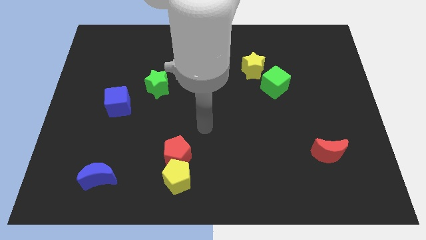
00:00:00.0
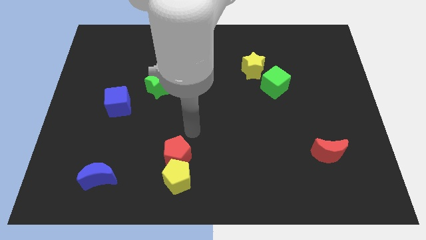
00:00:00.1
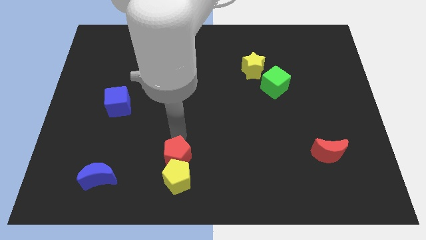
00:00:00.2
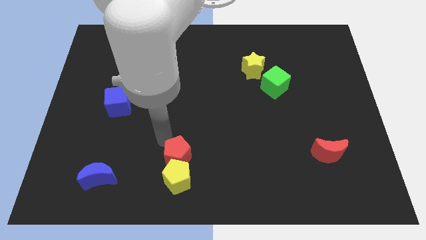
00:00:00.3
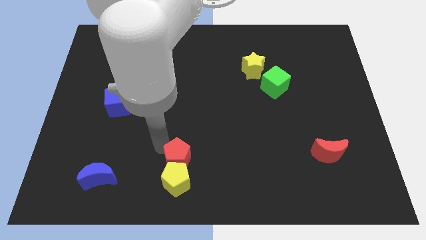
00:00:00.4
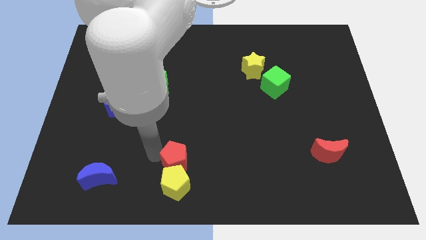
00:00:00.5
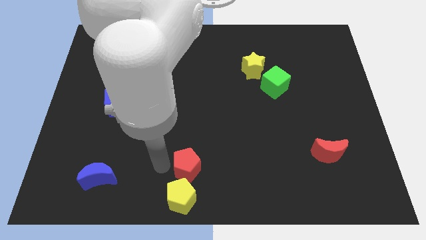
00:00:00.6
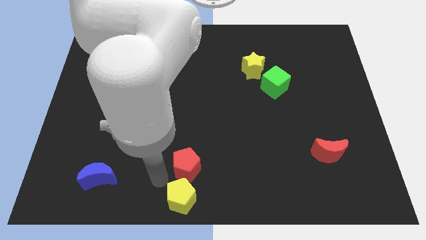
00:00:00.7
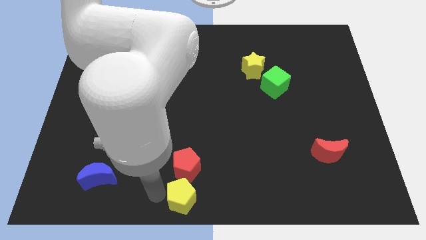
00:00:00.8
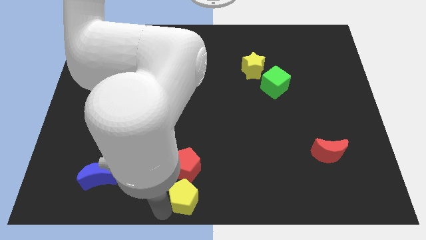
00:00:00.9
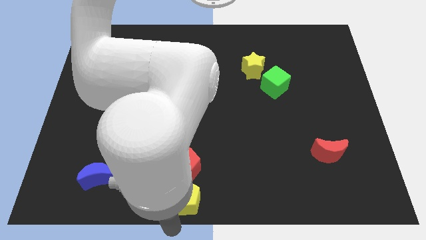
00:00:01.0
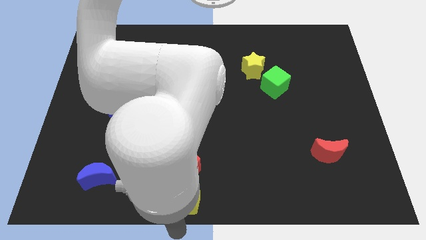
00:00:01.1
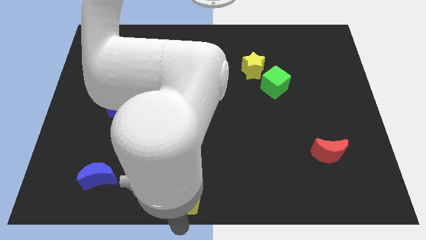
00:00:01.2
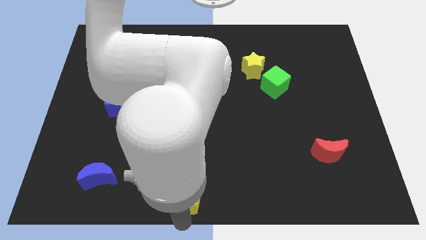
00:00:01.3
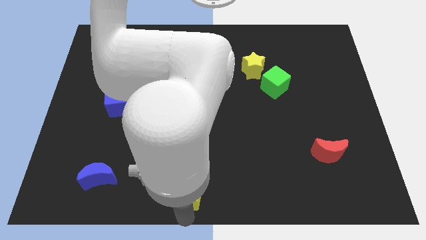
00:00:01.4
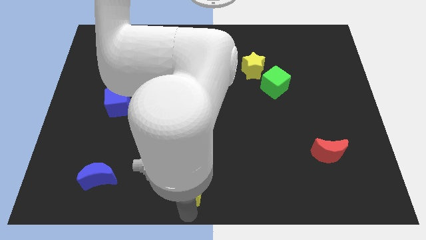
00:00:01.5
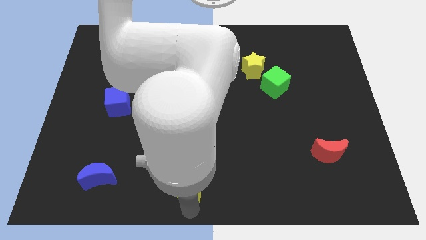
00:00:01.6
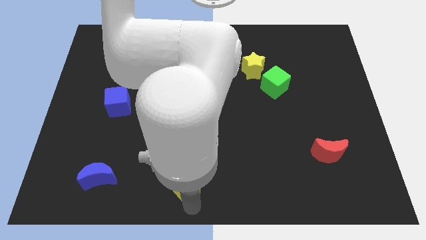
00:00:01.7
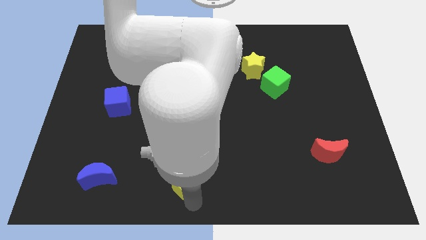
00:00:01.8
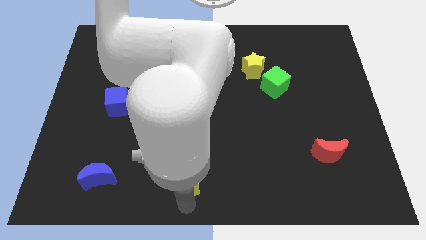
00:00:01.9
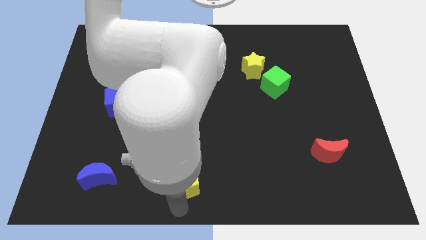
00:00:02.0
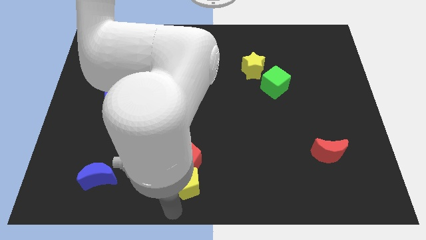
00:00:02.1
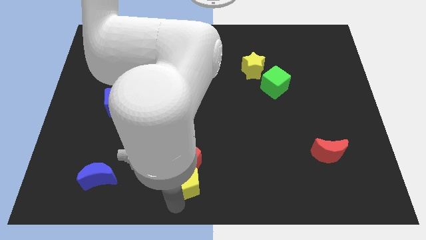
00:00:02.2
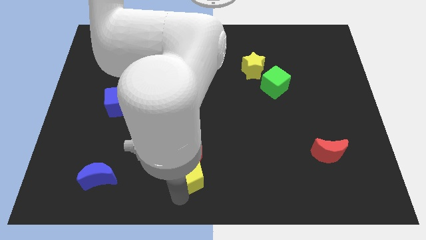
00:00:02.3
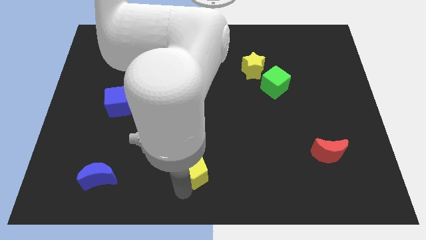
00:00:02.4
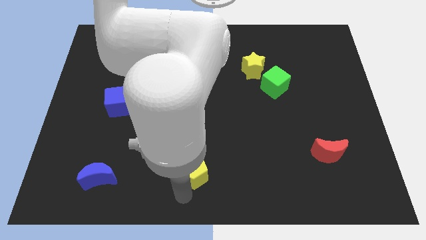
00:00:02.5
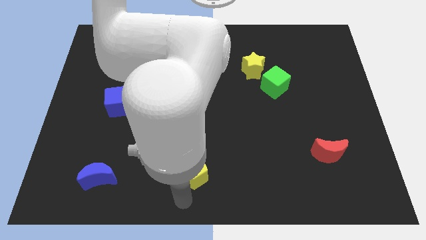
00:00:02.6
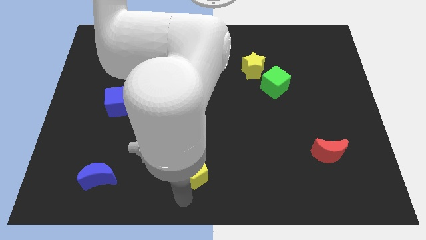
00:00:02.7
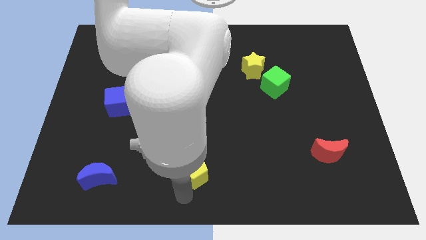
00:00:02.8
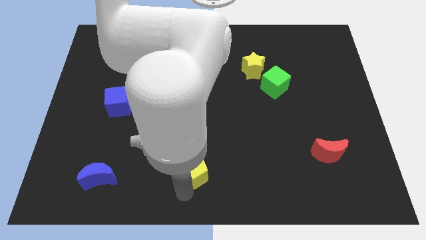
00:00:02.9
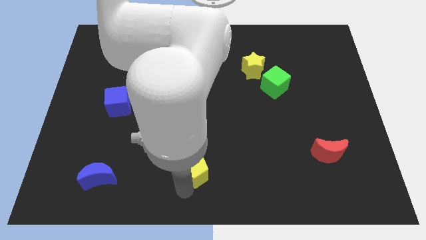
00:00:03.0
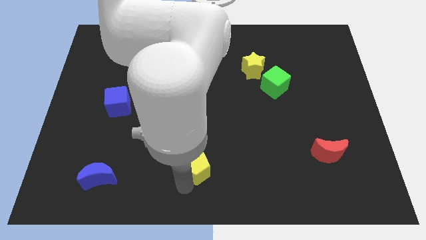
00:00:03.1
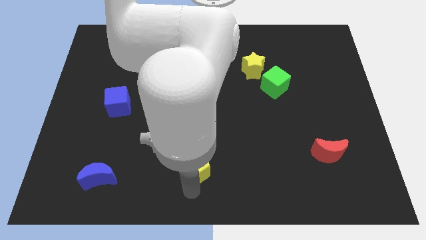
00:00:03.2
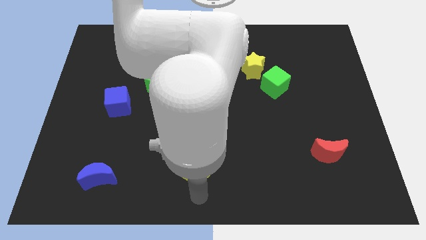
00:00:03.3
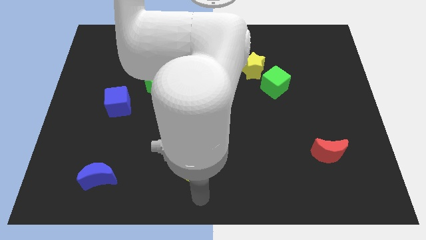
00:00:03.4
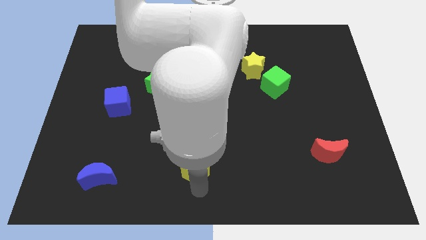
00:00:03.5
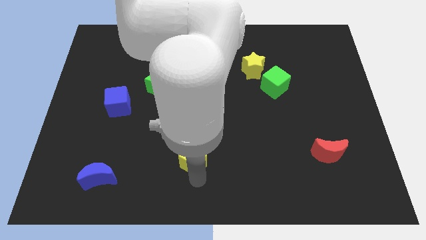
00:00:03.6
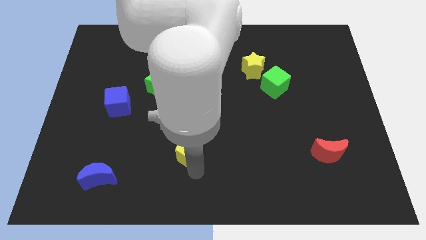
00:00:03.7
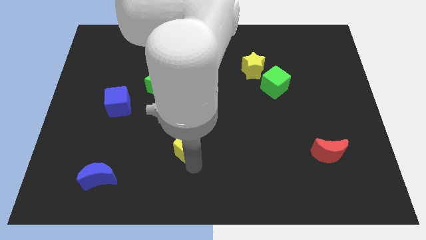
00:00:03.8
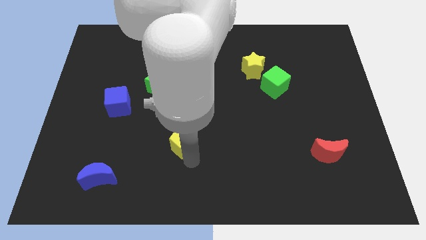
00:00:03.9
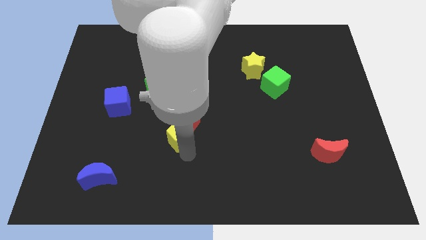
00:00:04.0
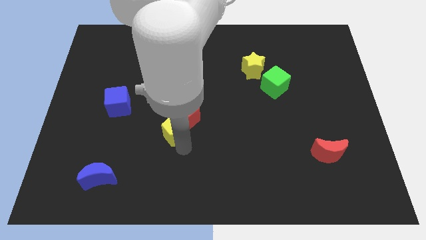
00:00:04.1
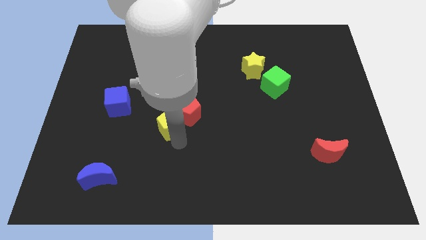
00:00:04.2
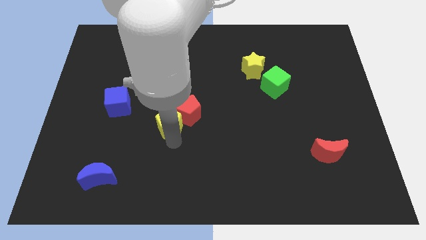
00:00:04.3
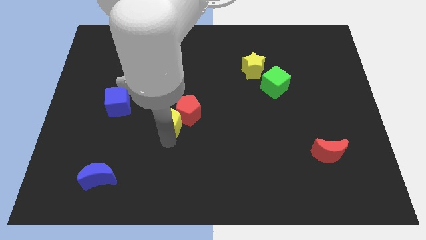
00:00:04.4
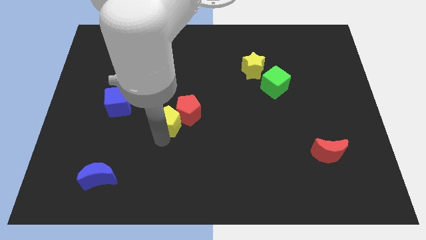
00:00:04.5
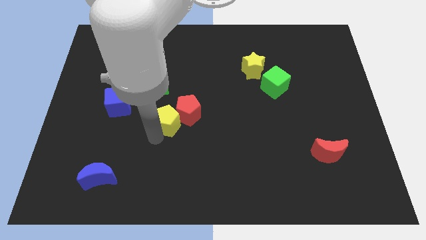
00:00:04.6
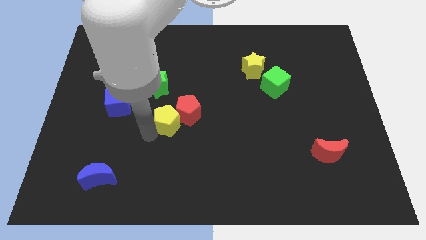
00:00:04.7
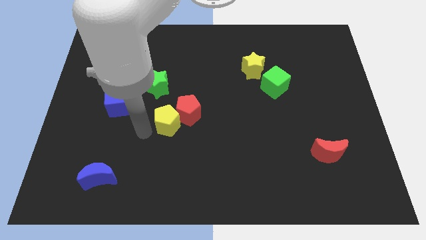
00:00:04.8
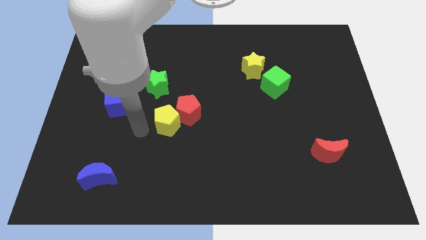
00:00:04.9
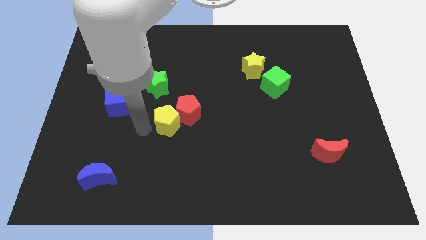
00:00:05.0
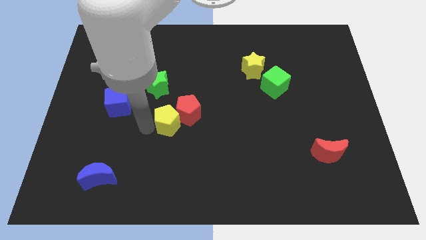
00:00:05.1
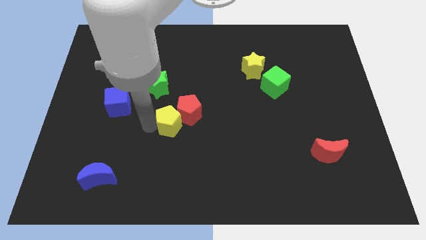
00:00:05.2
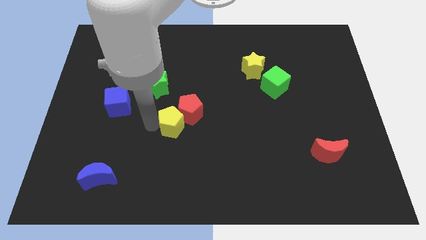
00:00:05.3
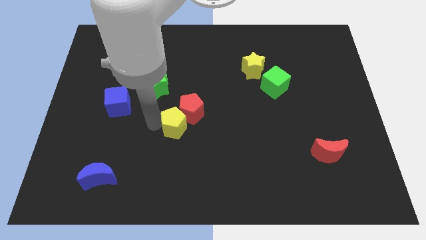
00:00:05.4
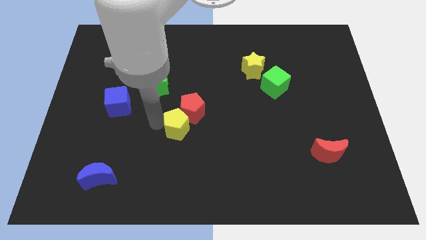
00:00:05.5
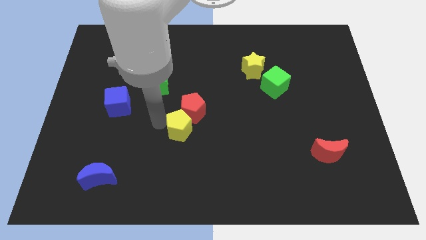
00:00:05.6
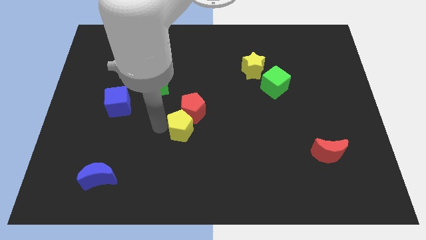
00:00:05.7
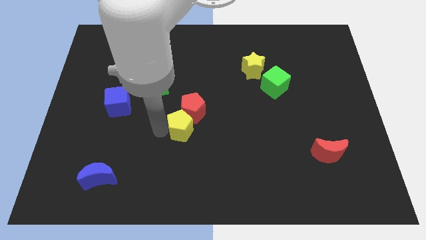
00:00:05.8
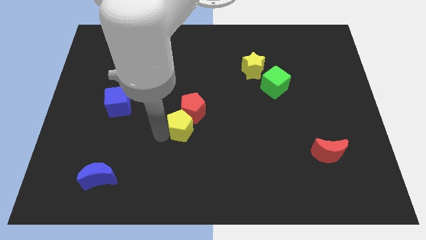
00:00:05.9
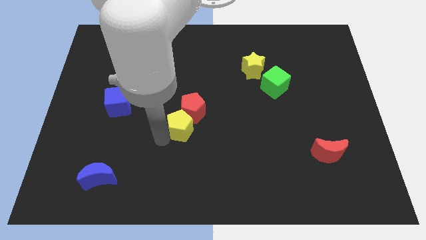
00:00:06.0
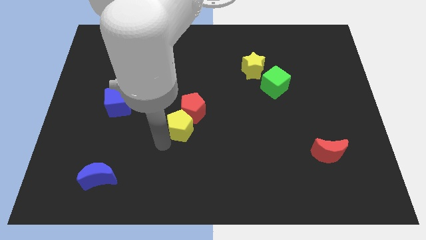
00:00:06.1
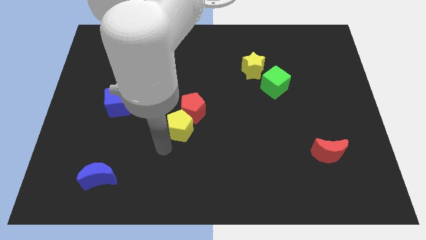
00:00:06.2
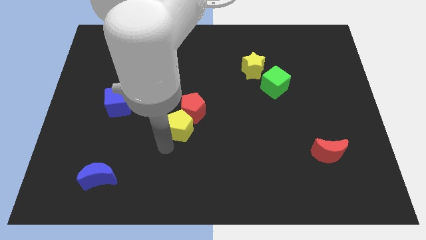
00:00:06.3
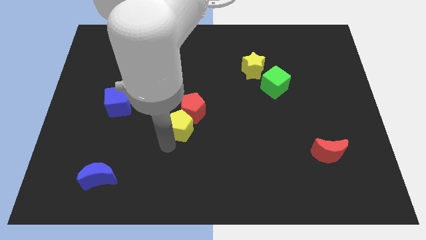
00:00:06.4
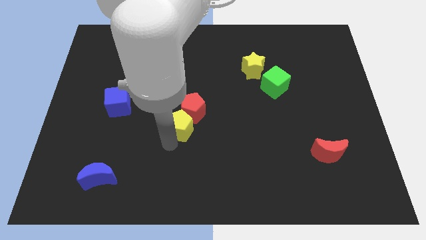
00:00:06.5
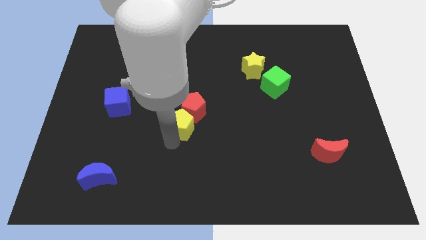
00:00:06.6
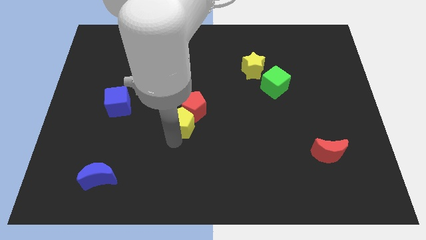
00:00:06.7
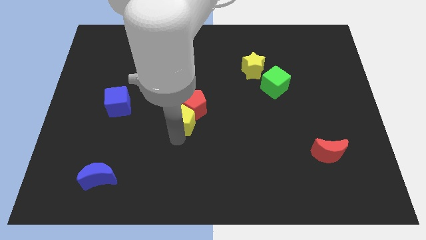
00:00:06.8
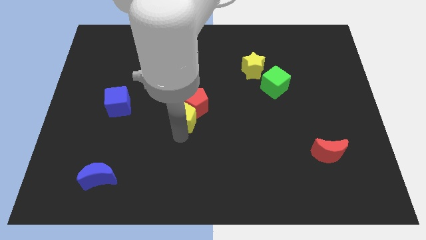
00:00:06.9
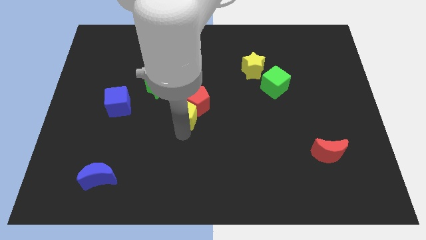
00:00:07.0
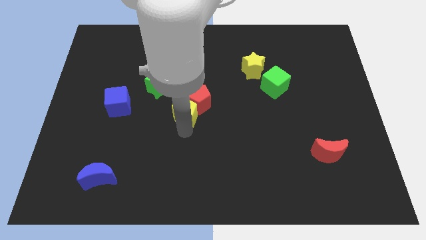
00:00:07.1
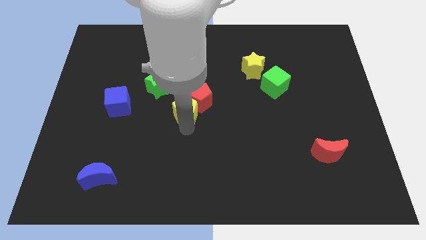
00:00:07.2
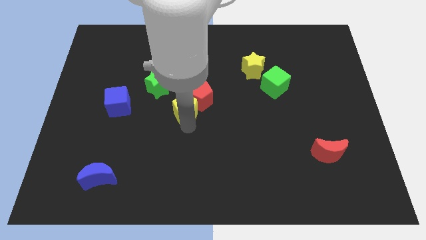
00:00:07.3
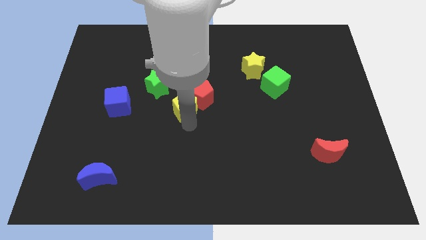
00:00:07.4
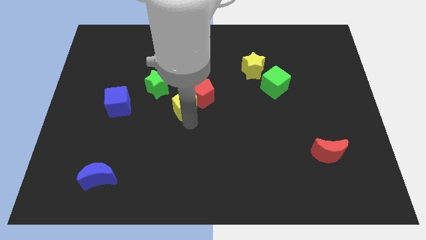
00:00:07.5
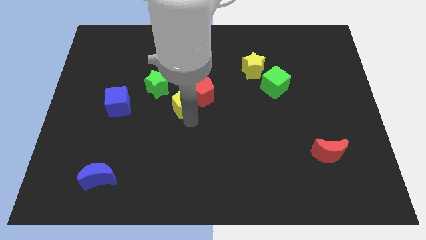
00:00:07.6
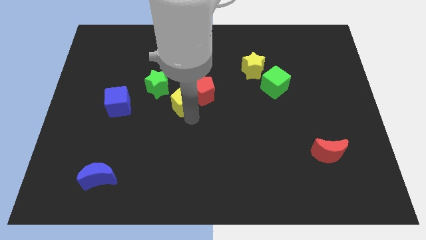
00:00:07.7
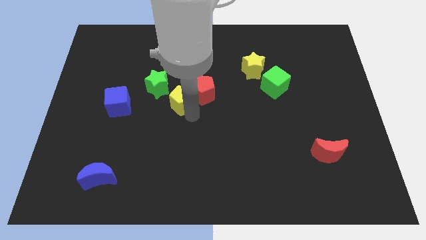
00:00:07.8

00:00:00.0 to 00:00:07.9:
move the yellow pentagon up
